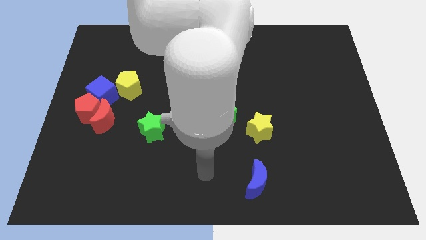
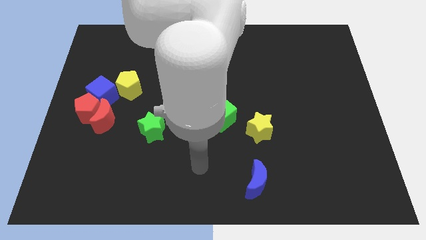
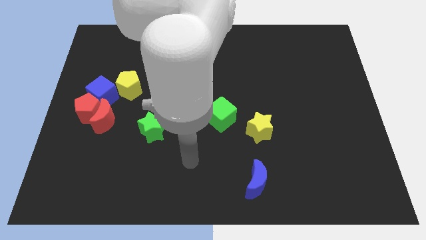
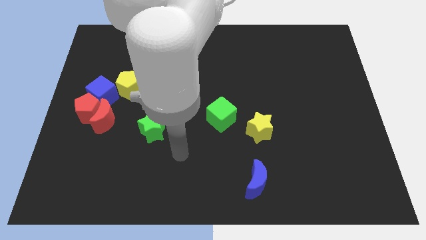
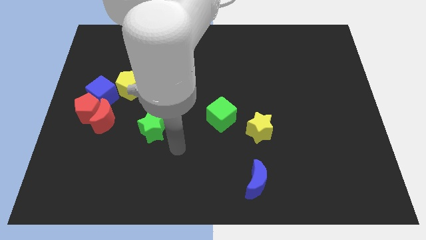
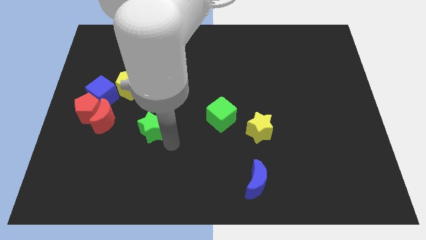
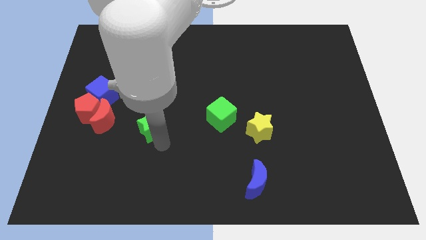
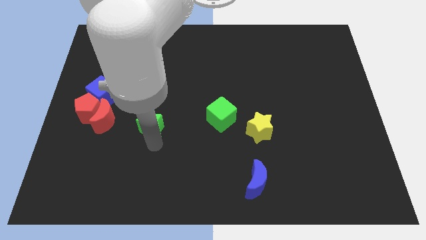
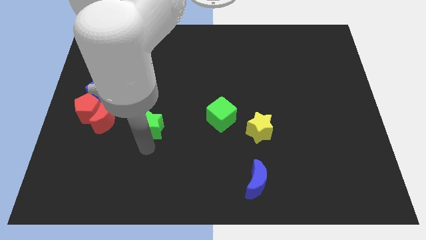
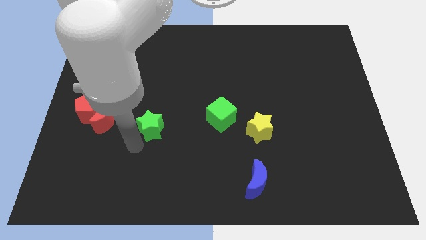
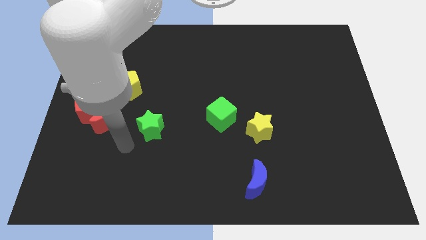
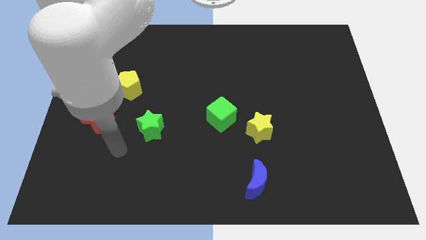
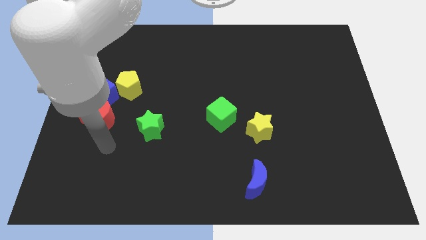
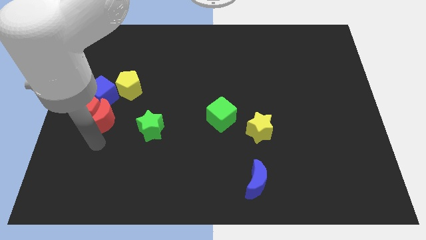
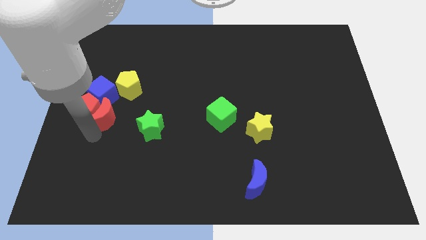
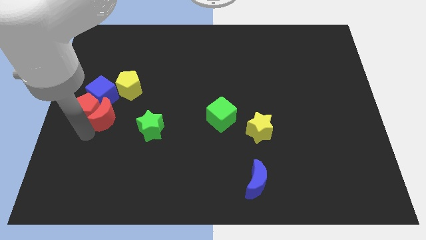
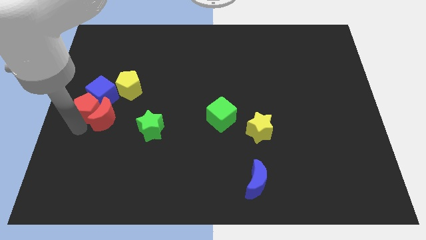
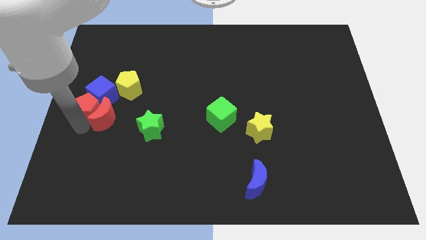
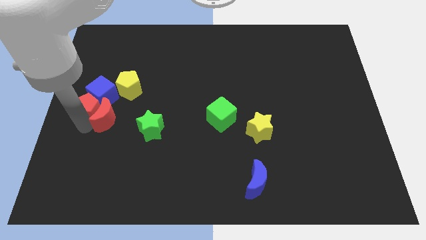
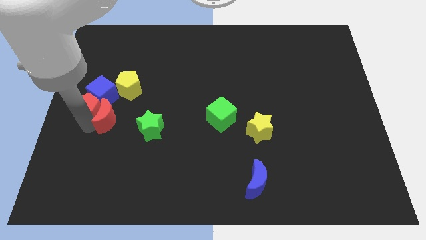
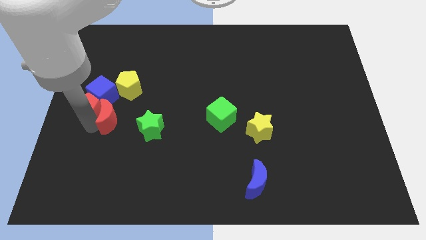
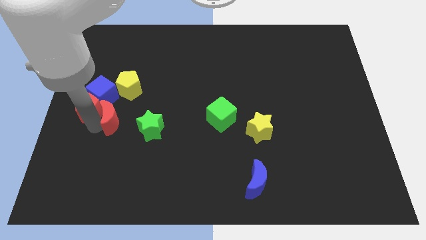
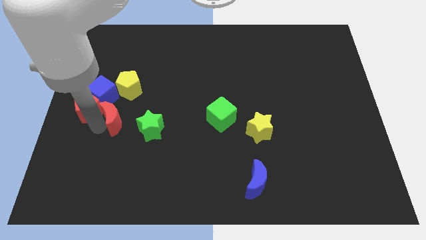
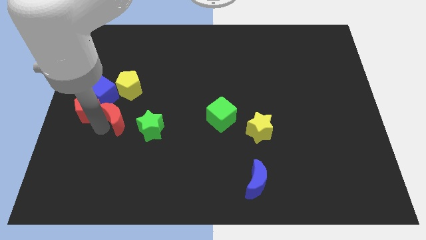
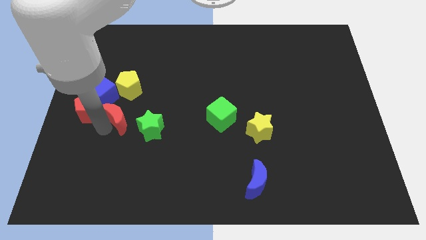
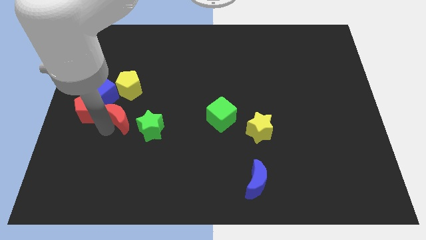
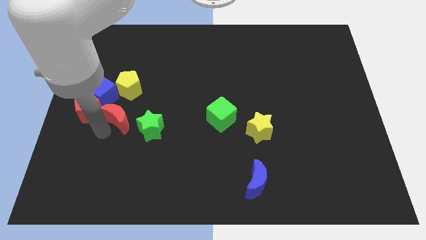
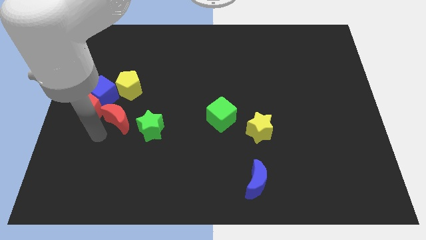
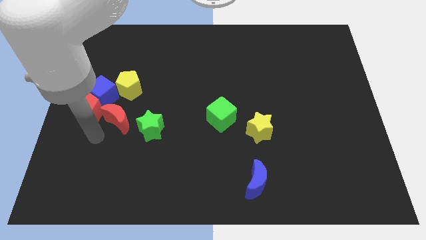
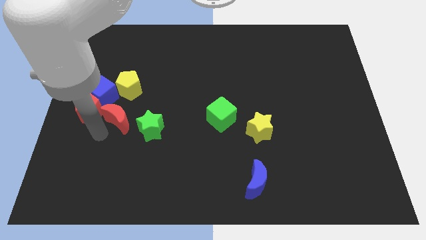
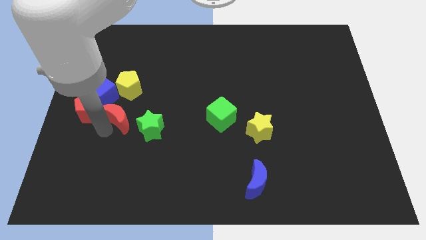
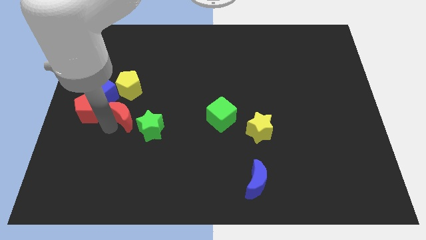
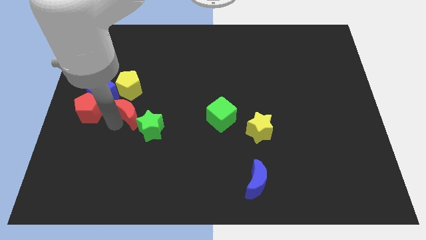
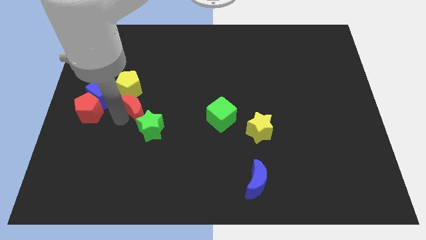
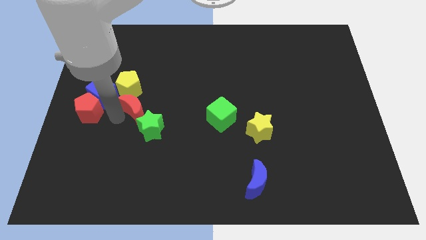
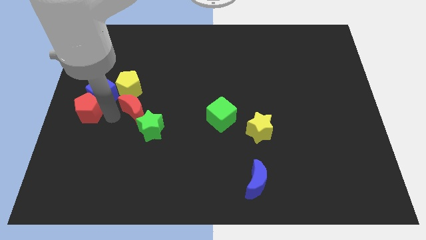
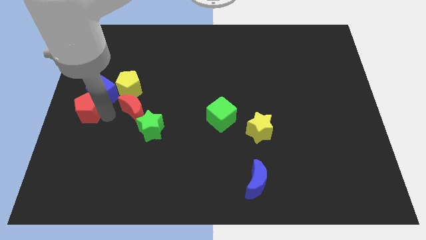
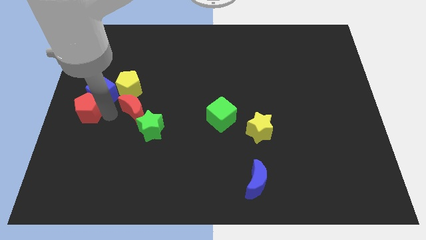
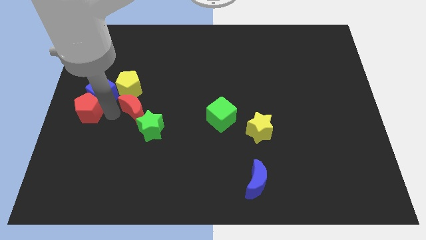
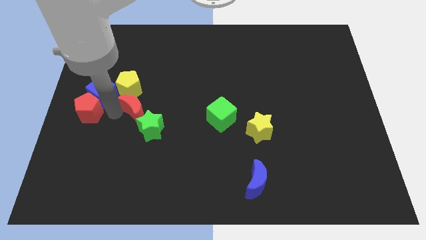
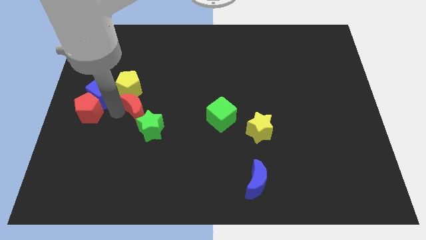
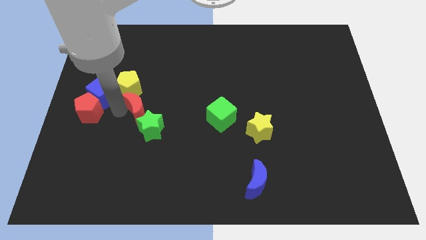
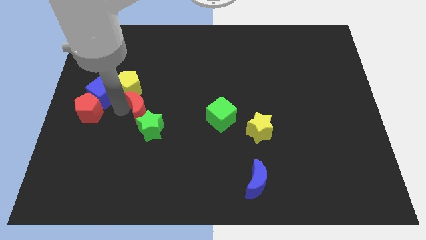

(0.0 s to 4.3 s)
slightly push the red moon to the right

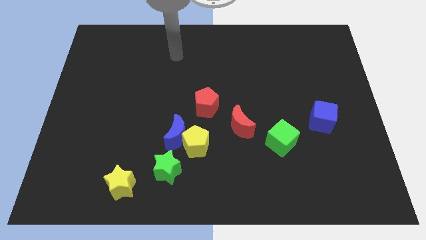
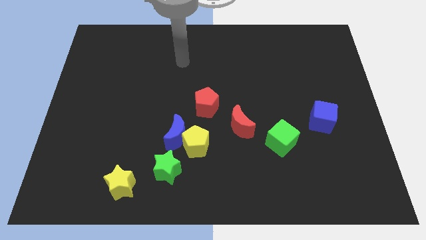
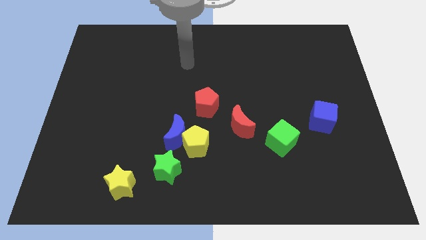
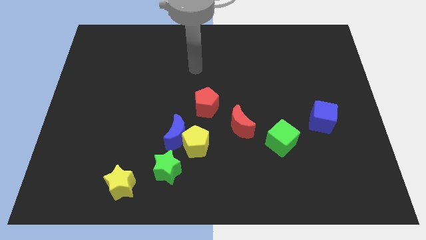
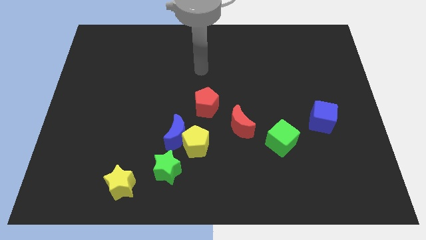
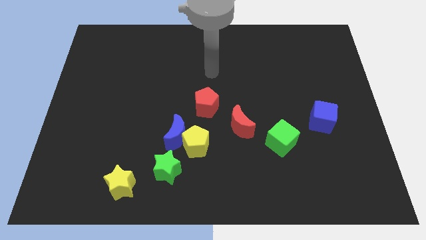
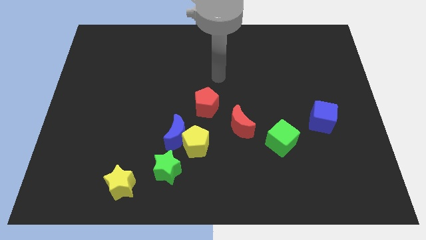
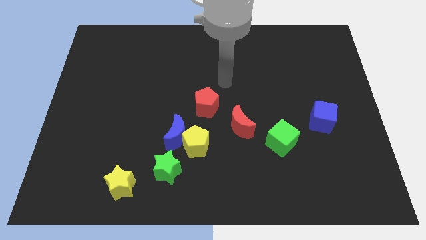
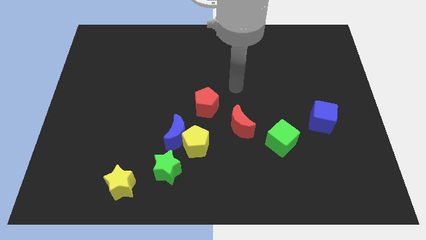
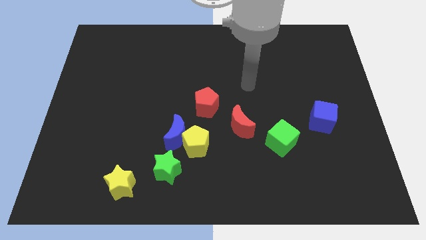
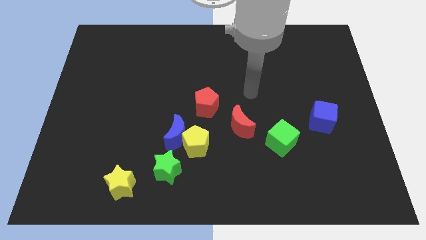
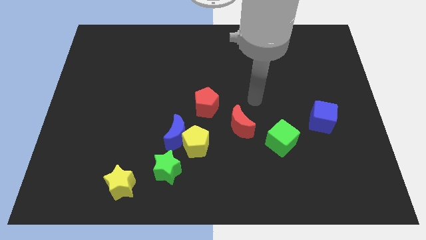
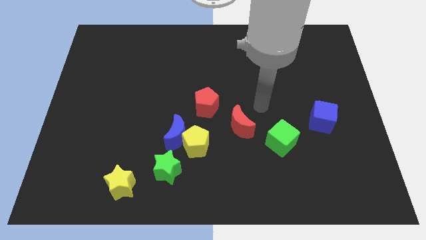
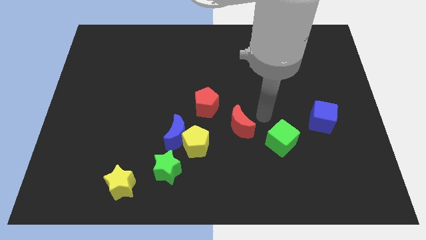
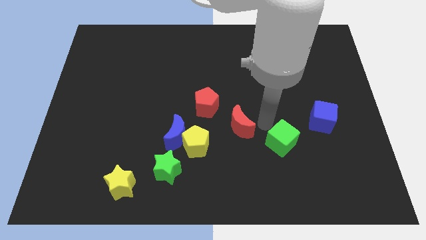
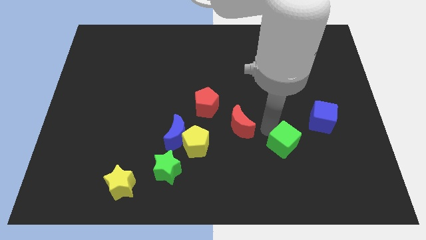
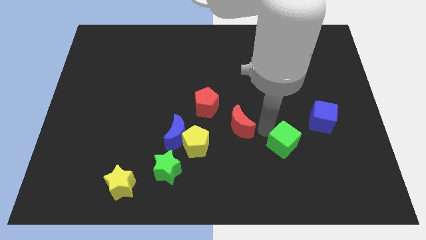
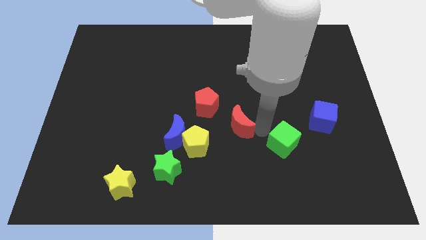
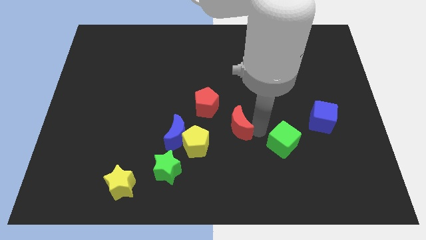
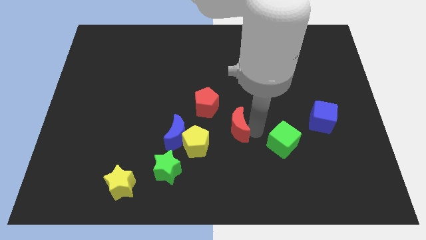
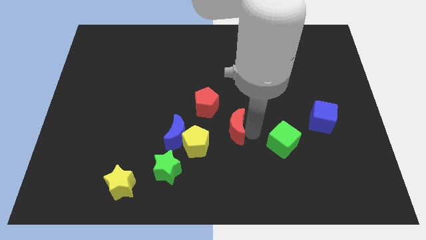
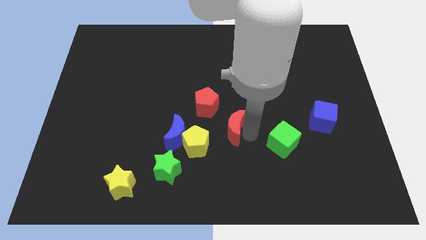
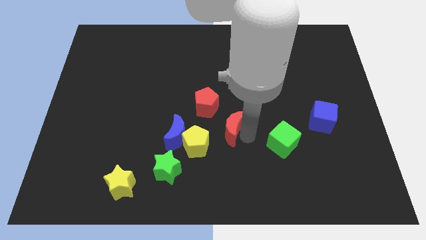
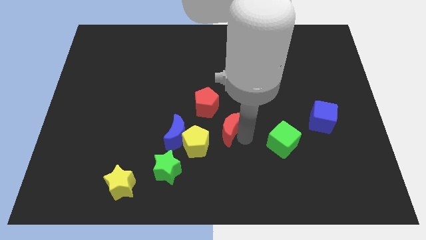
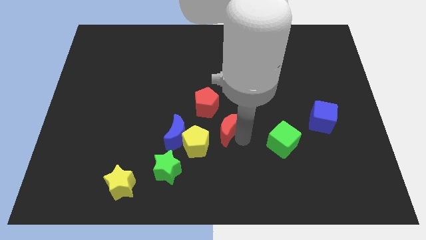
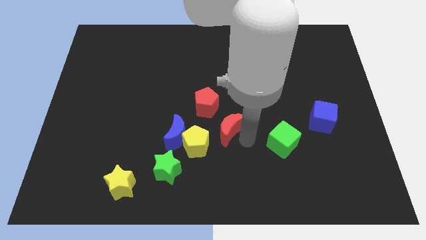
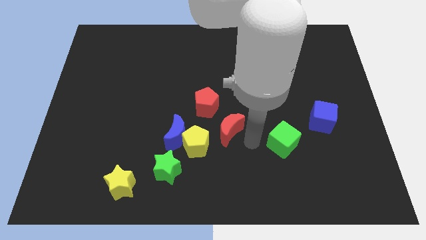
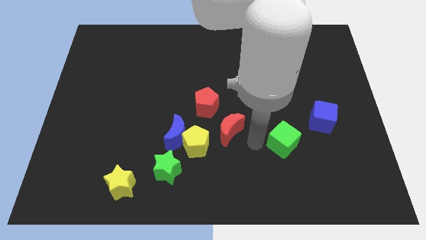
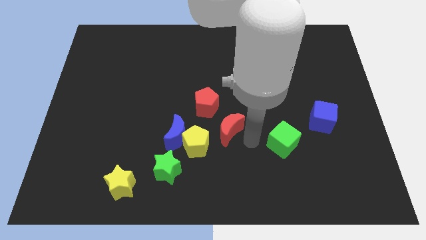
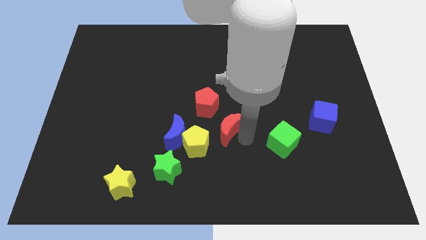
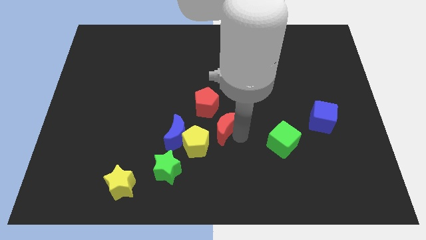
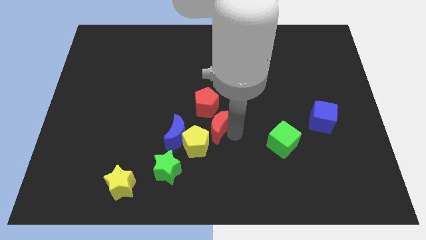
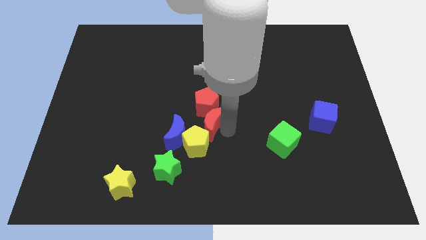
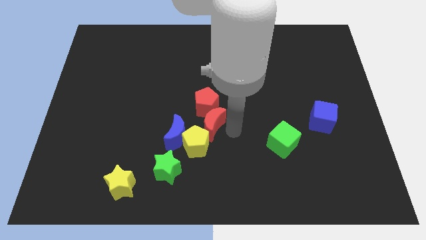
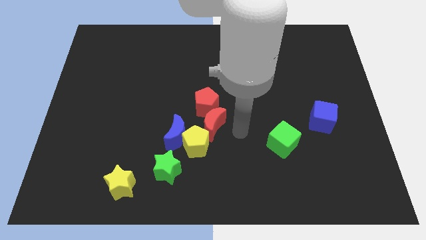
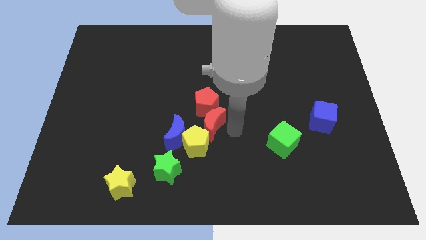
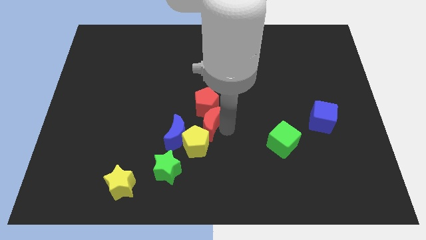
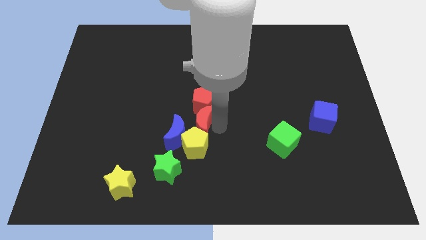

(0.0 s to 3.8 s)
slightly push the red moon to the left
